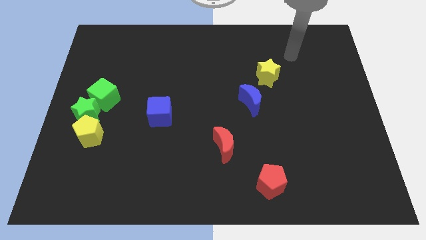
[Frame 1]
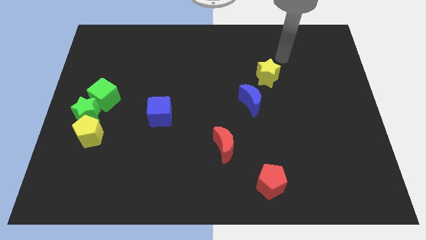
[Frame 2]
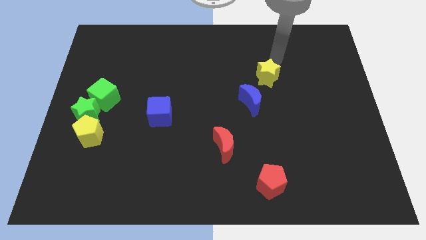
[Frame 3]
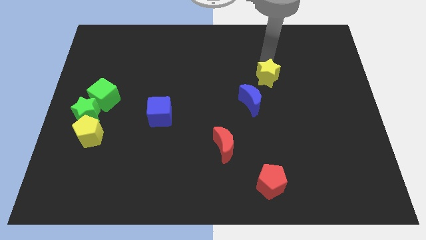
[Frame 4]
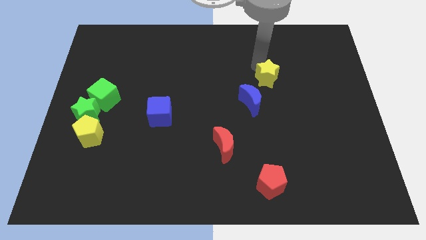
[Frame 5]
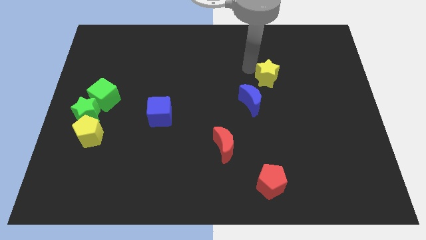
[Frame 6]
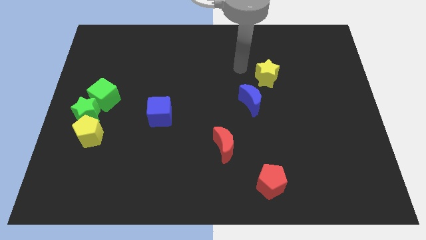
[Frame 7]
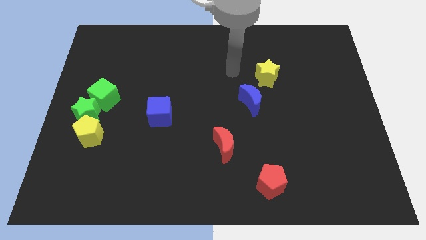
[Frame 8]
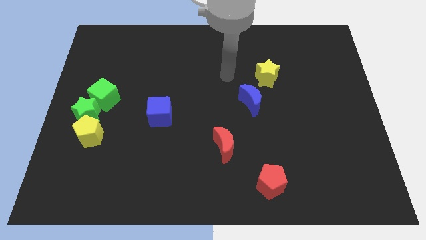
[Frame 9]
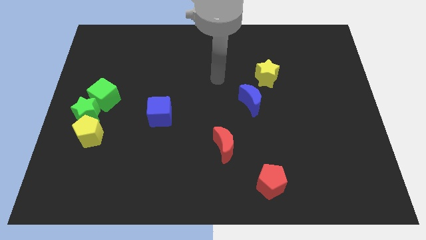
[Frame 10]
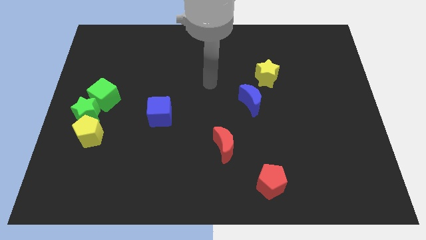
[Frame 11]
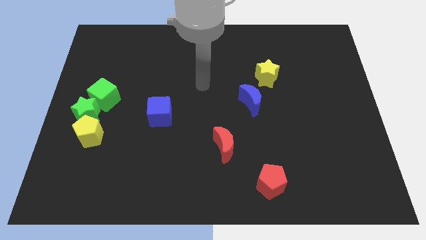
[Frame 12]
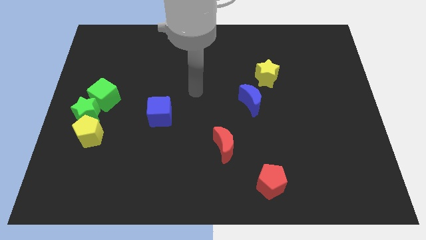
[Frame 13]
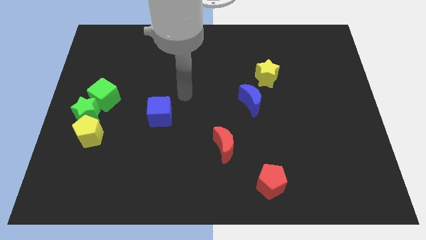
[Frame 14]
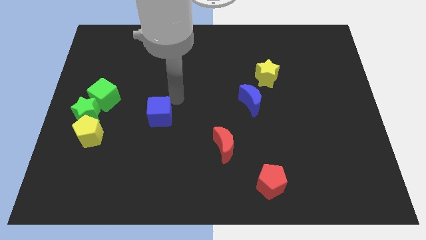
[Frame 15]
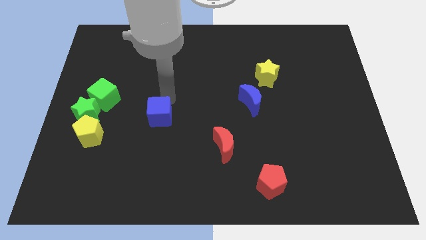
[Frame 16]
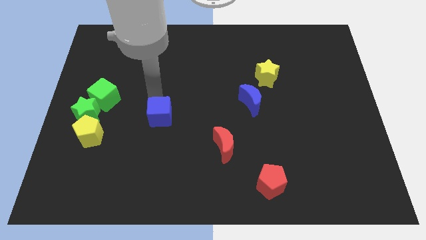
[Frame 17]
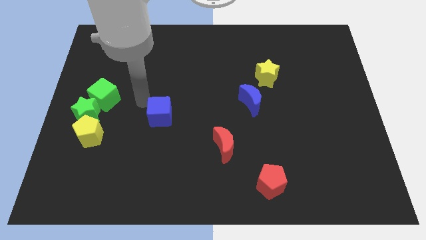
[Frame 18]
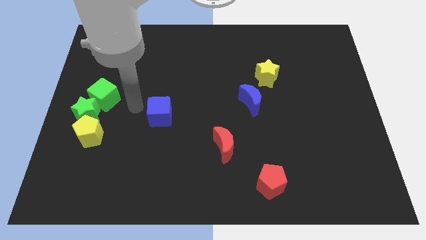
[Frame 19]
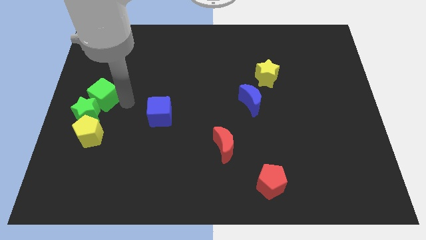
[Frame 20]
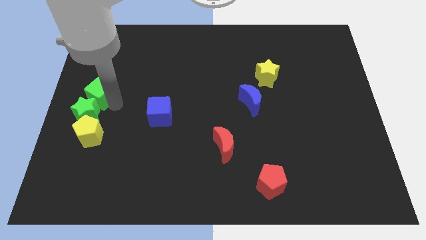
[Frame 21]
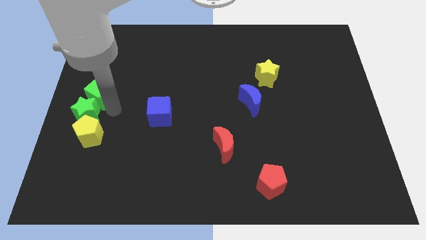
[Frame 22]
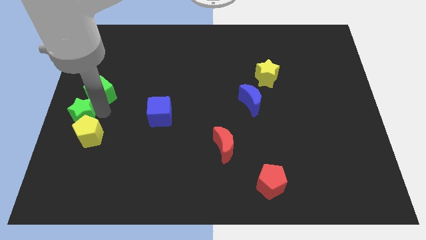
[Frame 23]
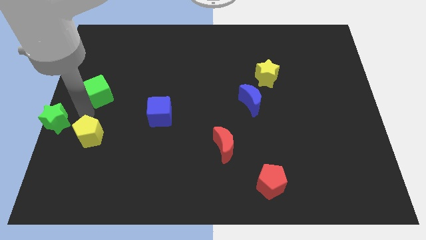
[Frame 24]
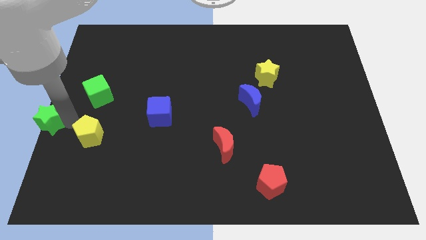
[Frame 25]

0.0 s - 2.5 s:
separate the yellow pentagon from the green star

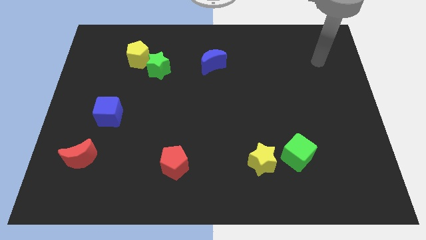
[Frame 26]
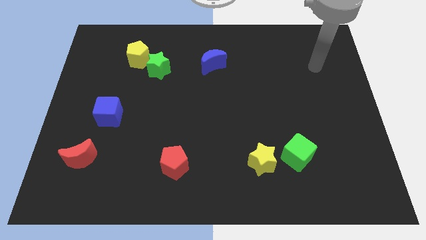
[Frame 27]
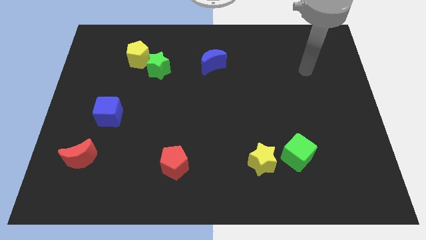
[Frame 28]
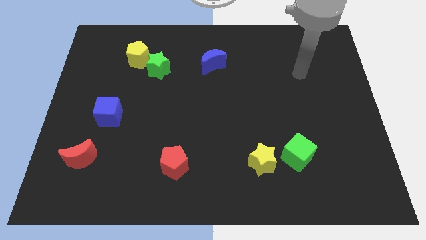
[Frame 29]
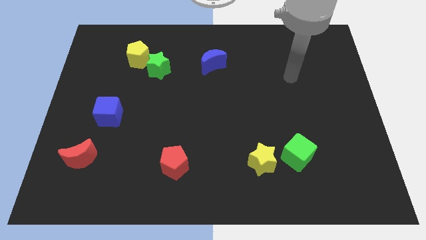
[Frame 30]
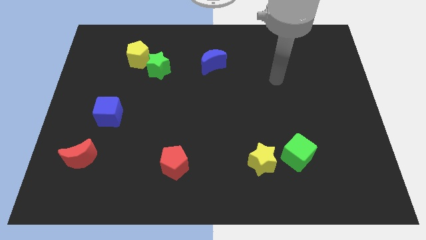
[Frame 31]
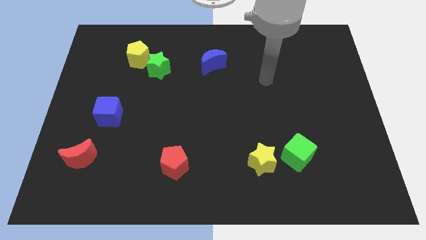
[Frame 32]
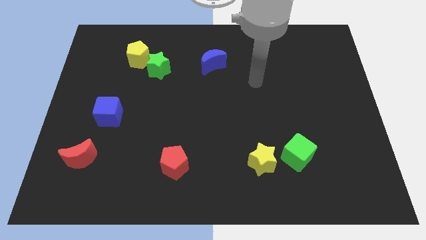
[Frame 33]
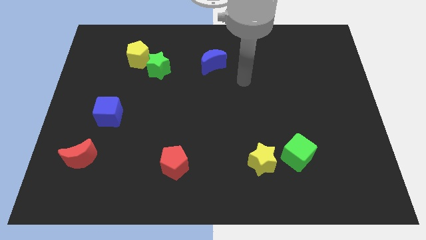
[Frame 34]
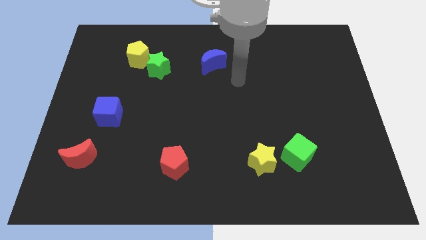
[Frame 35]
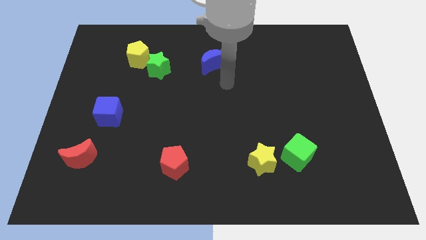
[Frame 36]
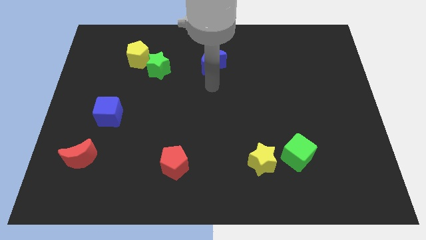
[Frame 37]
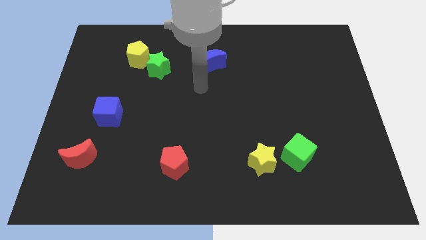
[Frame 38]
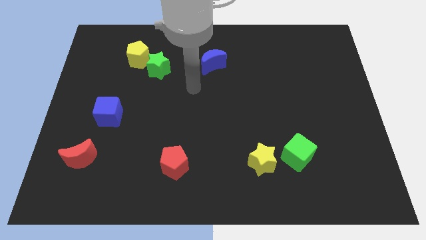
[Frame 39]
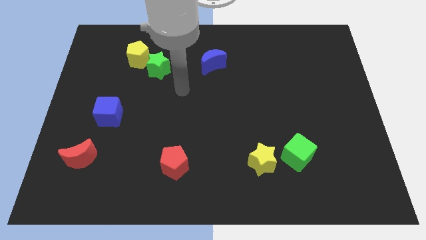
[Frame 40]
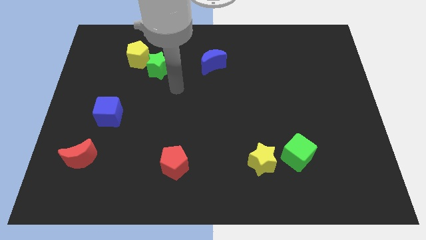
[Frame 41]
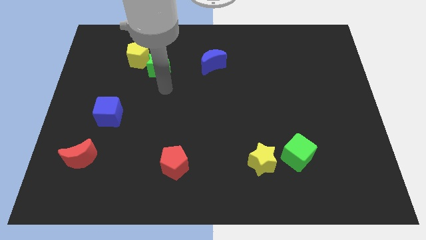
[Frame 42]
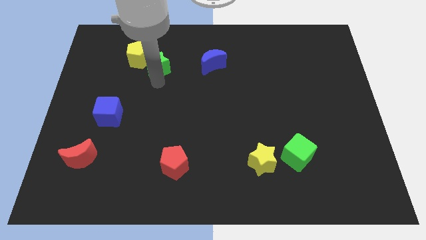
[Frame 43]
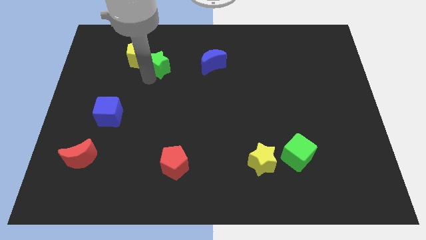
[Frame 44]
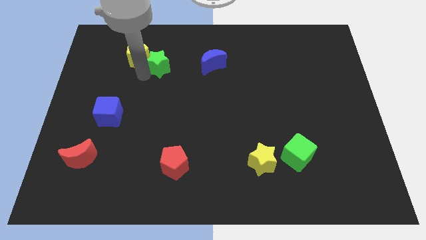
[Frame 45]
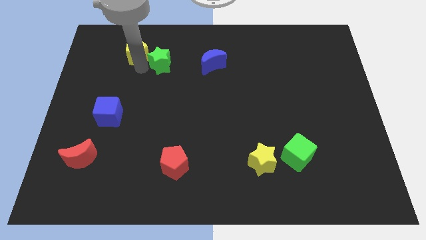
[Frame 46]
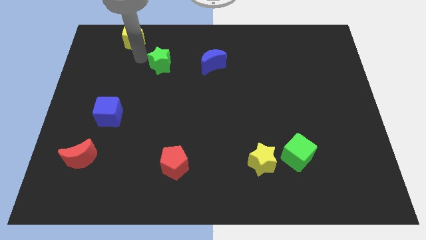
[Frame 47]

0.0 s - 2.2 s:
separate the green star from the yellow pentagon

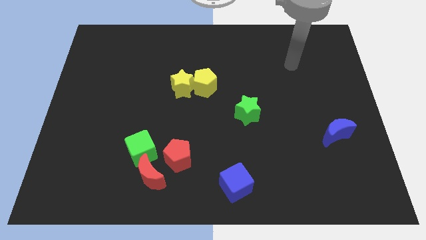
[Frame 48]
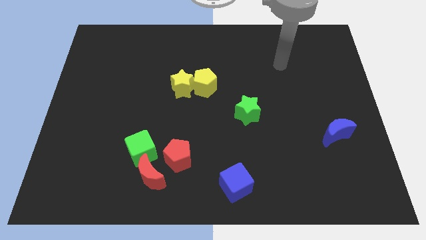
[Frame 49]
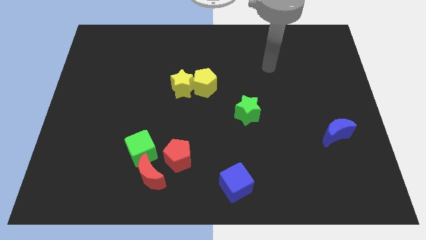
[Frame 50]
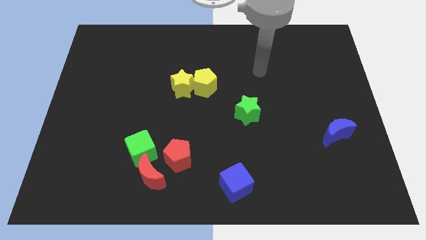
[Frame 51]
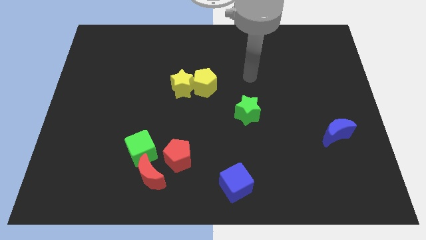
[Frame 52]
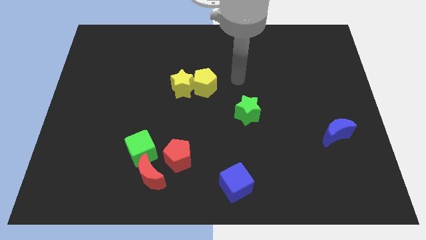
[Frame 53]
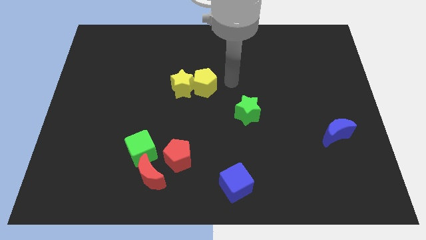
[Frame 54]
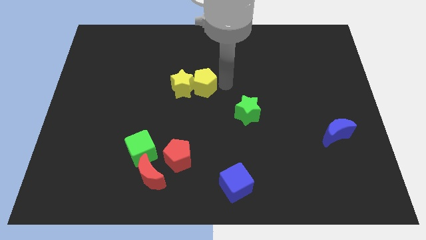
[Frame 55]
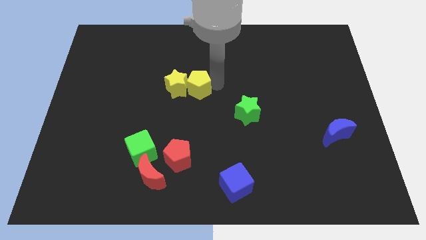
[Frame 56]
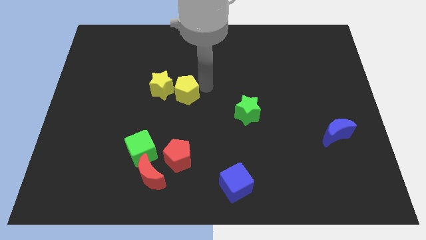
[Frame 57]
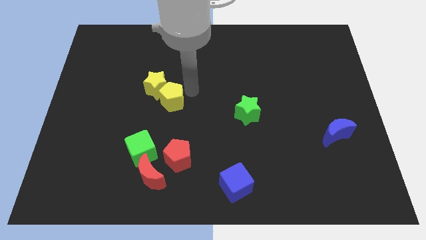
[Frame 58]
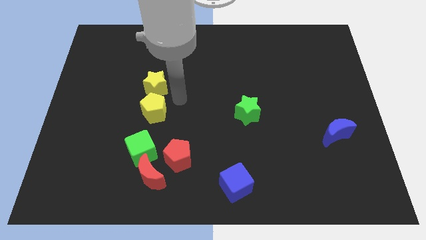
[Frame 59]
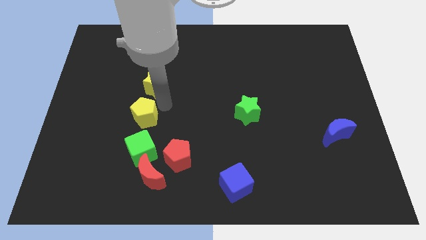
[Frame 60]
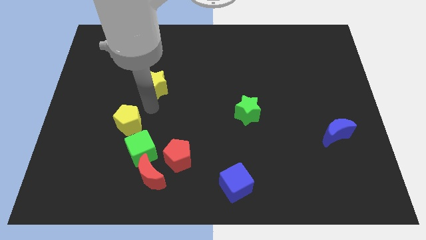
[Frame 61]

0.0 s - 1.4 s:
separate the yellow star from the yellow pentagon

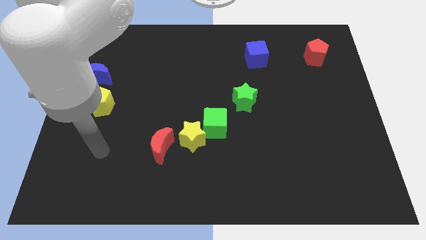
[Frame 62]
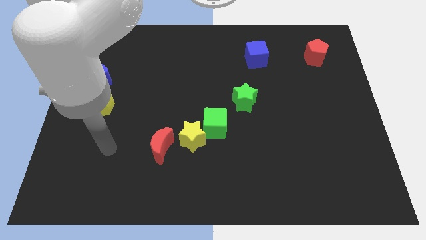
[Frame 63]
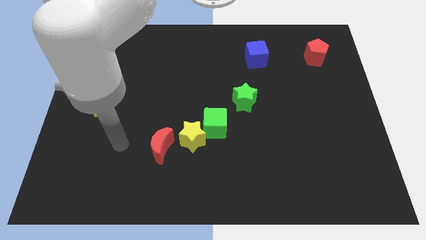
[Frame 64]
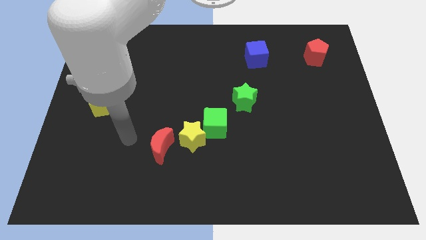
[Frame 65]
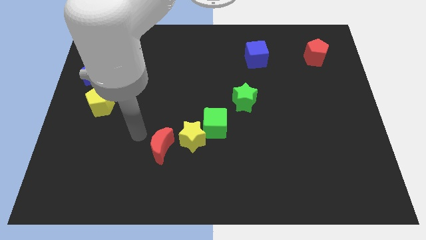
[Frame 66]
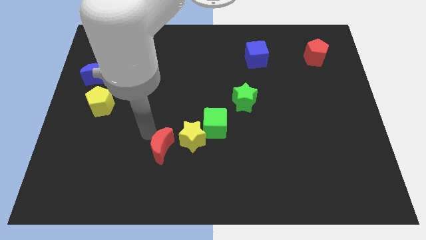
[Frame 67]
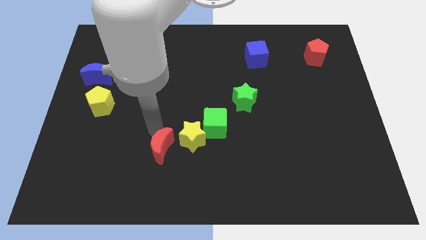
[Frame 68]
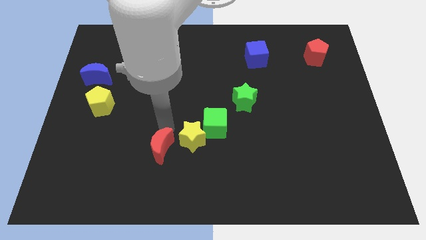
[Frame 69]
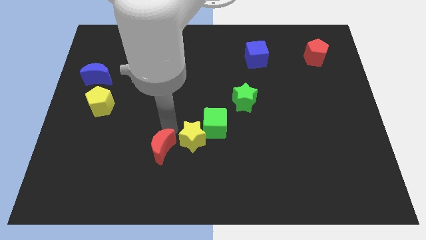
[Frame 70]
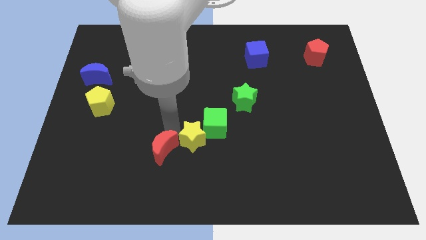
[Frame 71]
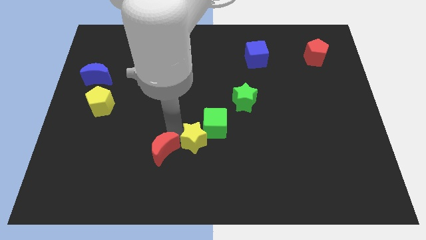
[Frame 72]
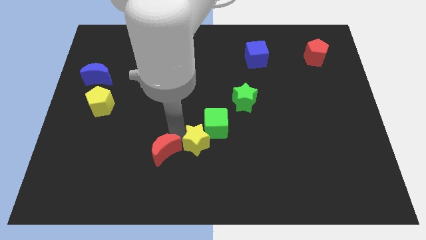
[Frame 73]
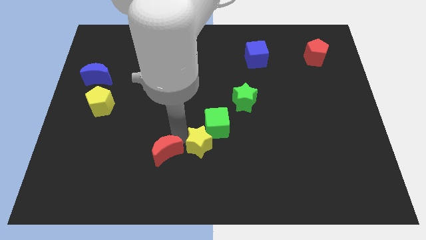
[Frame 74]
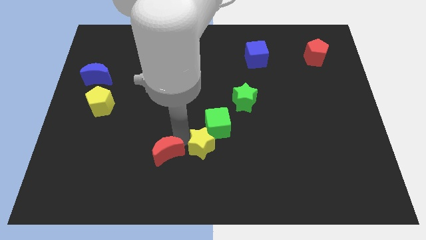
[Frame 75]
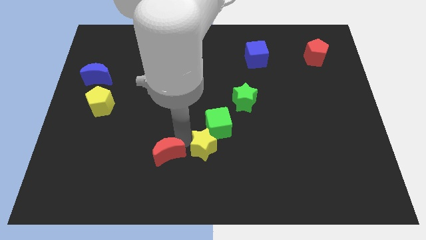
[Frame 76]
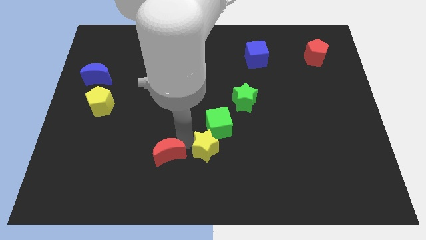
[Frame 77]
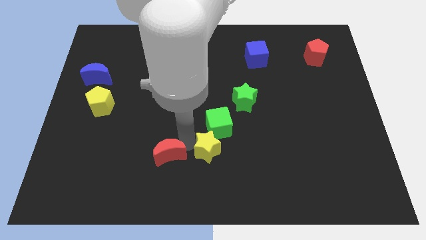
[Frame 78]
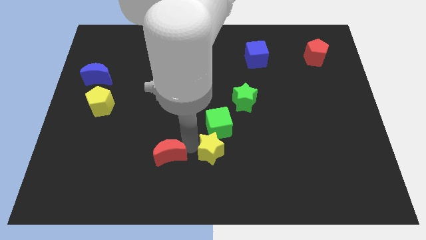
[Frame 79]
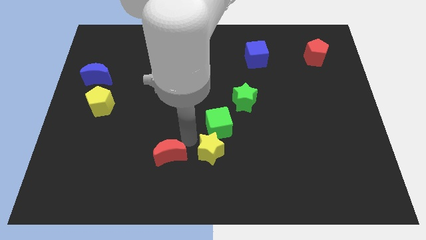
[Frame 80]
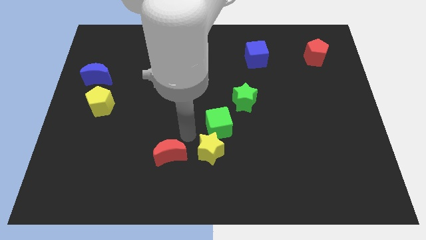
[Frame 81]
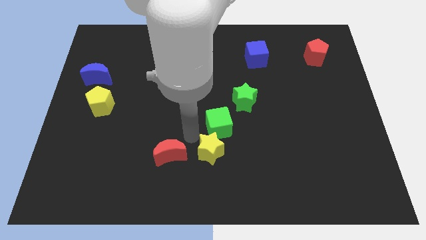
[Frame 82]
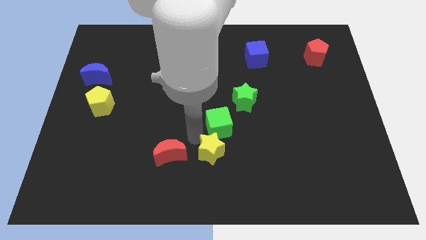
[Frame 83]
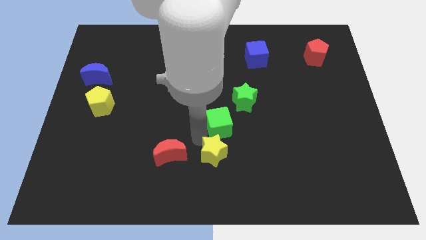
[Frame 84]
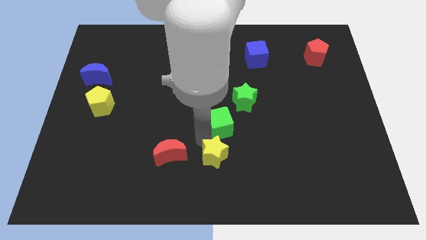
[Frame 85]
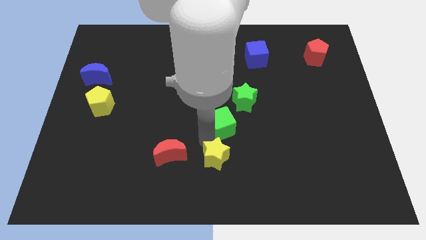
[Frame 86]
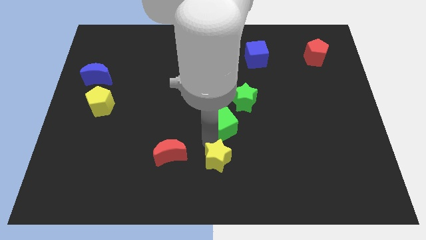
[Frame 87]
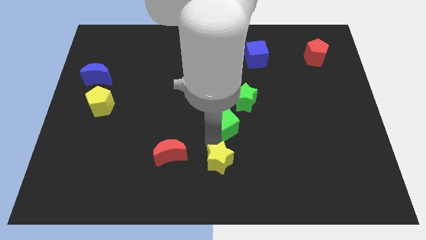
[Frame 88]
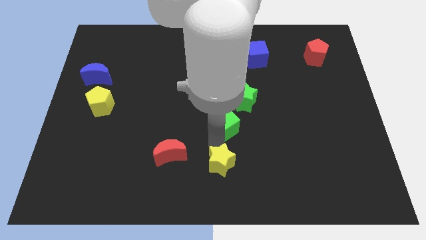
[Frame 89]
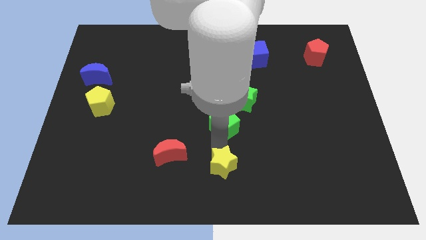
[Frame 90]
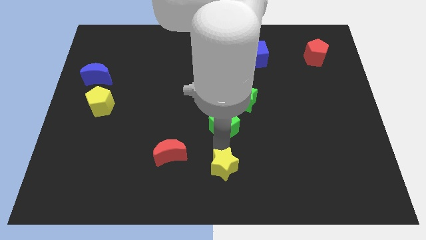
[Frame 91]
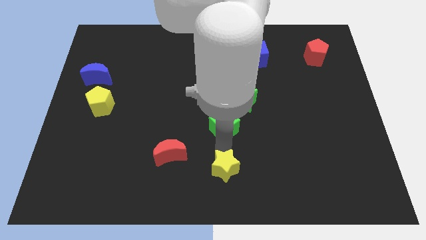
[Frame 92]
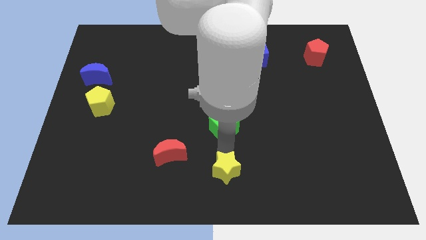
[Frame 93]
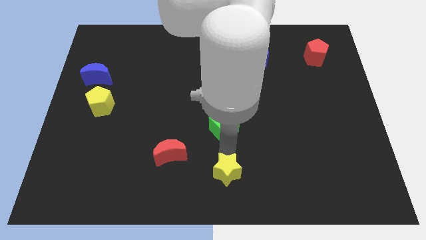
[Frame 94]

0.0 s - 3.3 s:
move the yellow star away from the green cube and red moon
